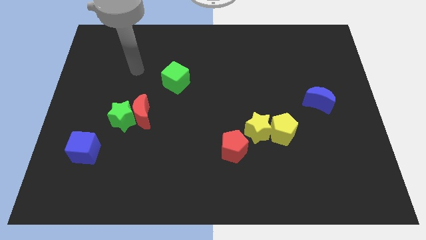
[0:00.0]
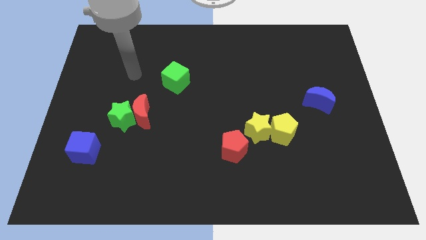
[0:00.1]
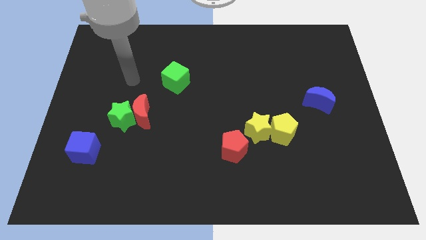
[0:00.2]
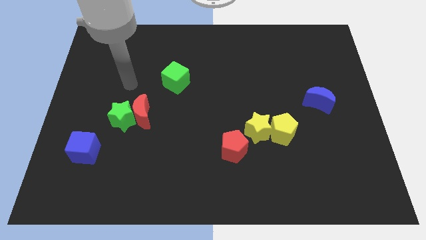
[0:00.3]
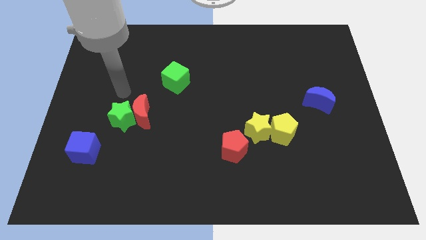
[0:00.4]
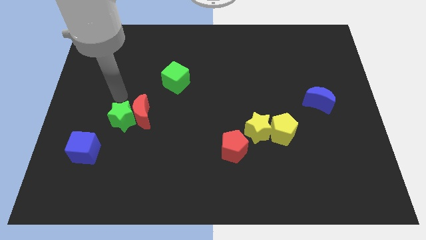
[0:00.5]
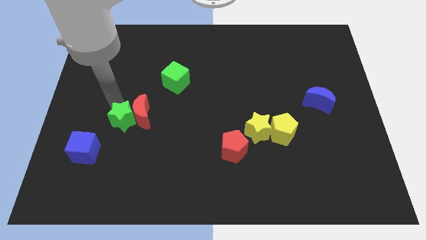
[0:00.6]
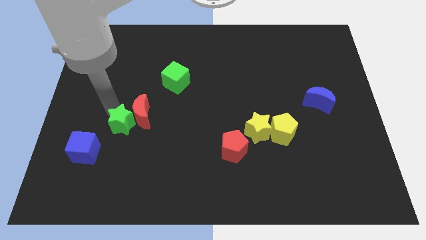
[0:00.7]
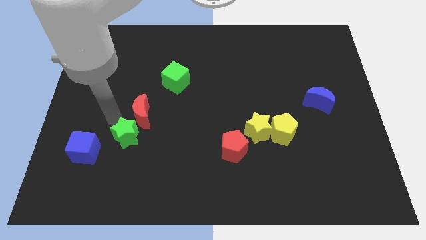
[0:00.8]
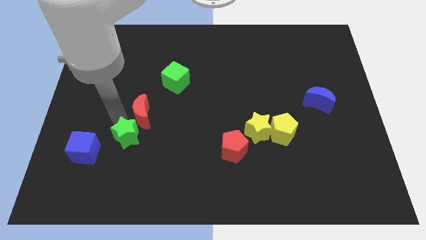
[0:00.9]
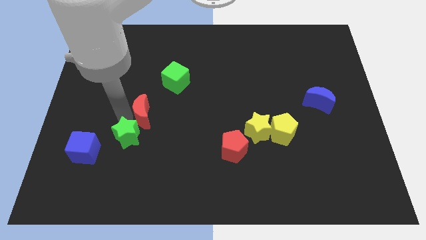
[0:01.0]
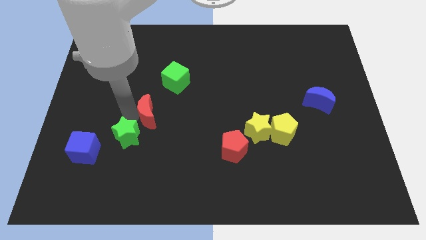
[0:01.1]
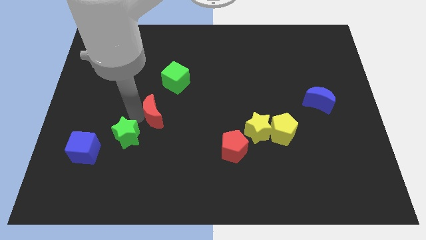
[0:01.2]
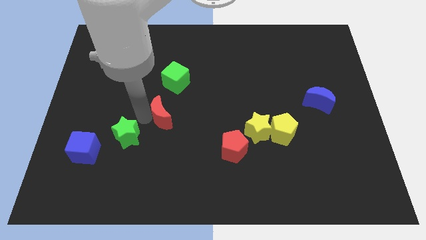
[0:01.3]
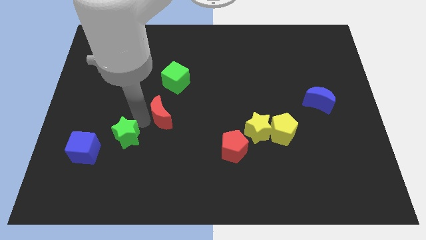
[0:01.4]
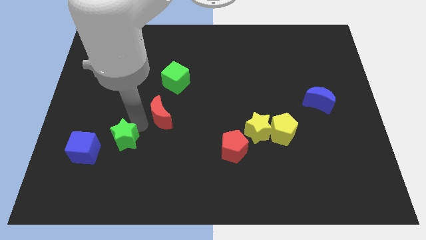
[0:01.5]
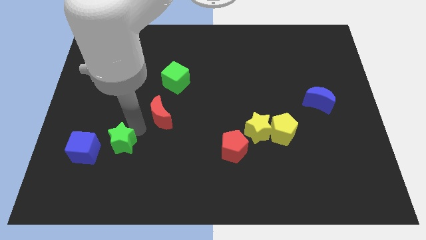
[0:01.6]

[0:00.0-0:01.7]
pull the red moon apart from the green star

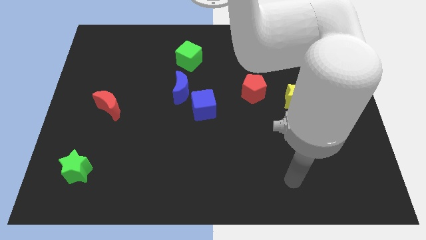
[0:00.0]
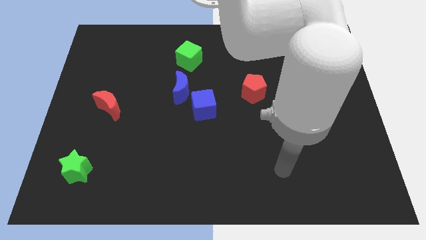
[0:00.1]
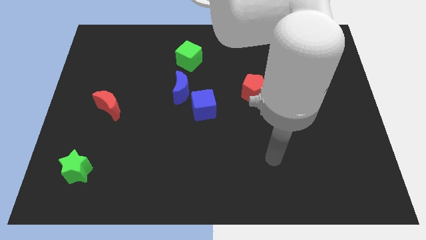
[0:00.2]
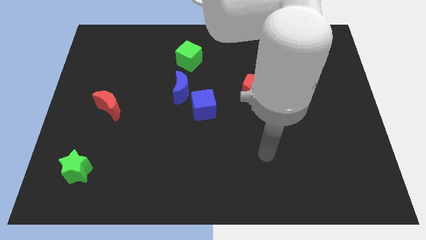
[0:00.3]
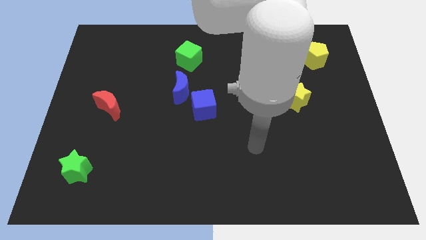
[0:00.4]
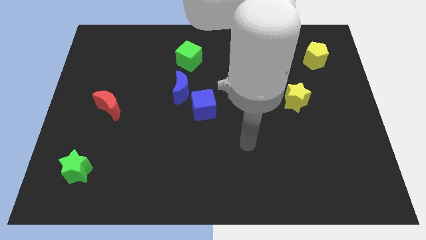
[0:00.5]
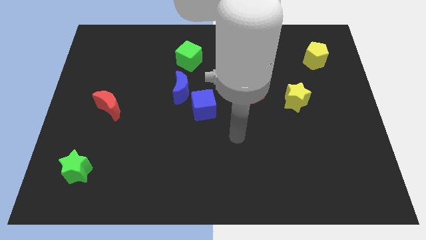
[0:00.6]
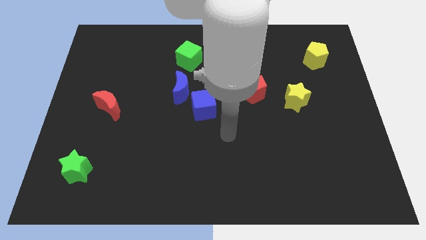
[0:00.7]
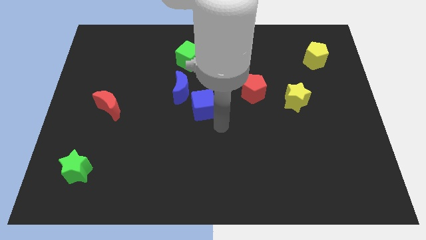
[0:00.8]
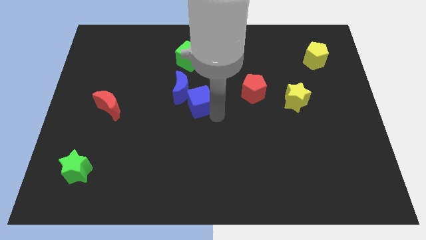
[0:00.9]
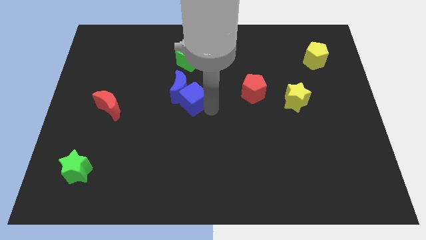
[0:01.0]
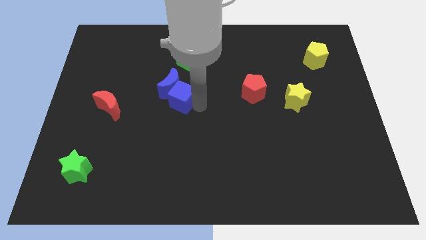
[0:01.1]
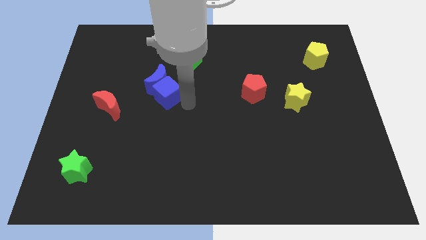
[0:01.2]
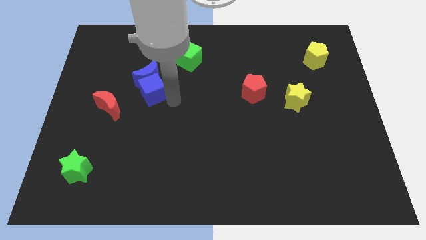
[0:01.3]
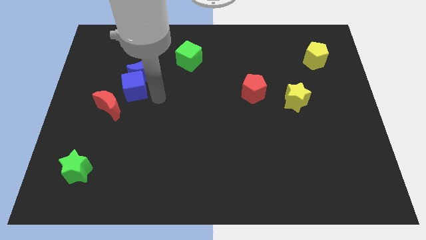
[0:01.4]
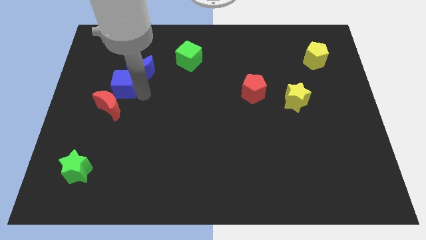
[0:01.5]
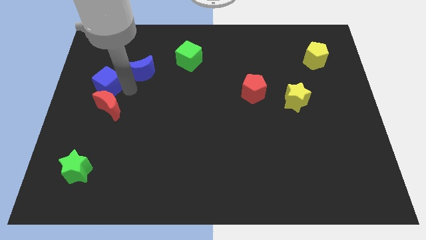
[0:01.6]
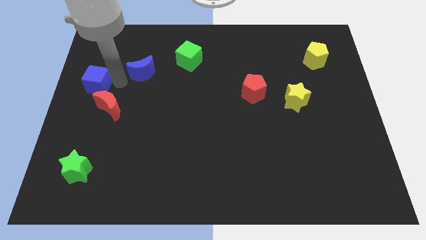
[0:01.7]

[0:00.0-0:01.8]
move the blue moon away from the blue cube

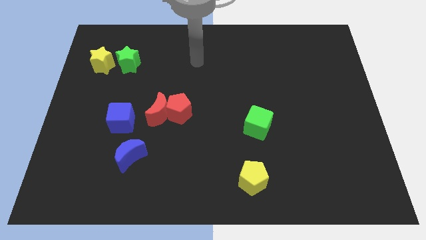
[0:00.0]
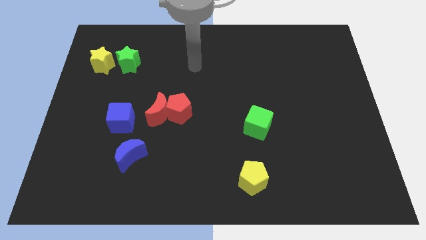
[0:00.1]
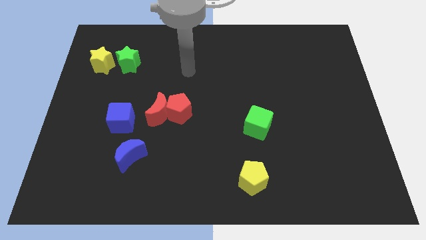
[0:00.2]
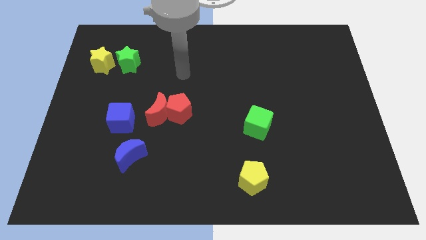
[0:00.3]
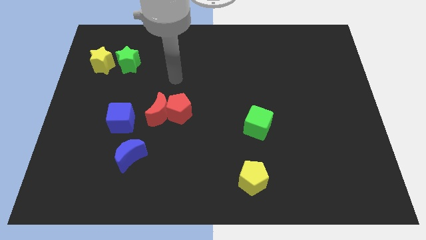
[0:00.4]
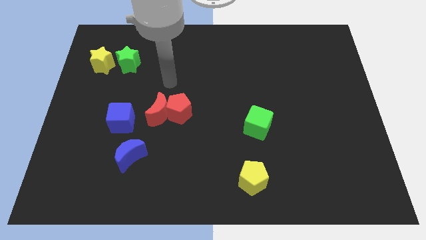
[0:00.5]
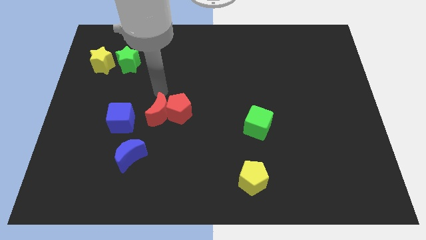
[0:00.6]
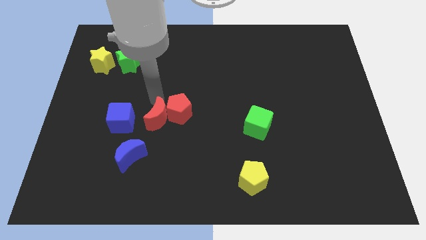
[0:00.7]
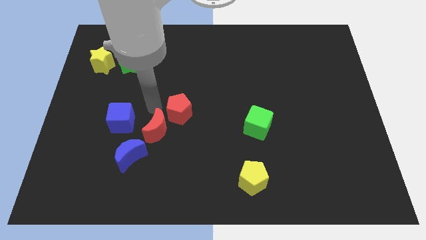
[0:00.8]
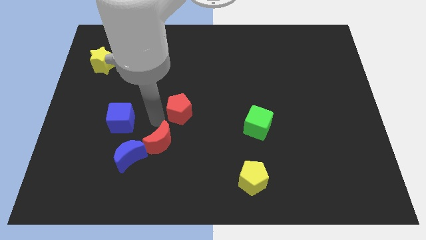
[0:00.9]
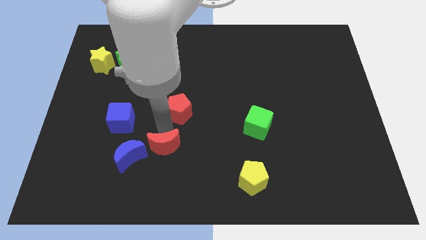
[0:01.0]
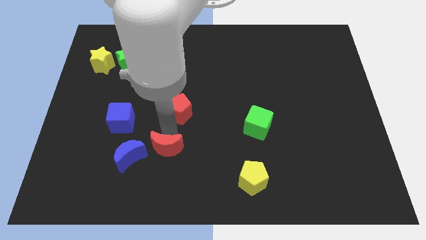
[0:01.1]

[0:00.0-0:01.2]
pull the red pentagon apart from the red moon

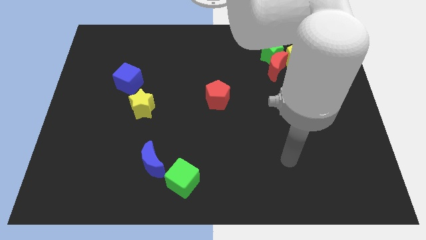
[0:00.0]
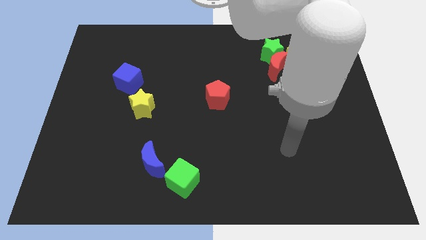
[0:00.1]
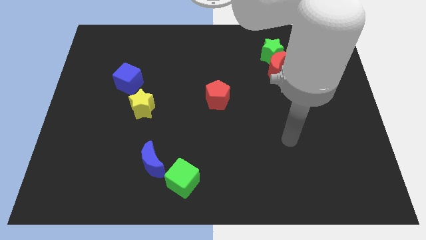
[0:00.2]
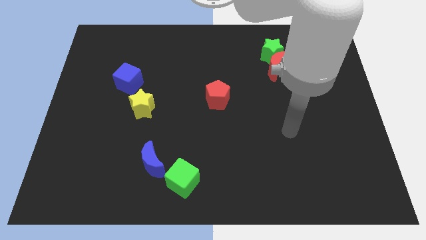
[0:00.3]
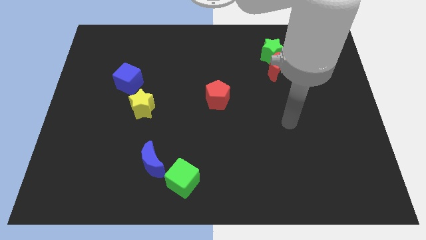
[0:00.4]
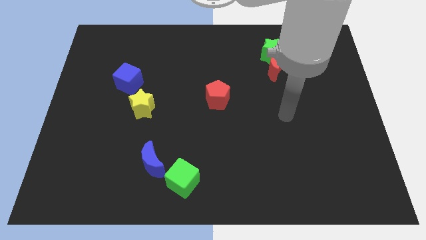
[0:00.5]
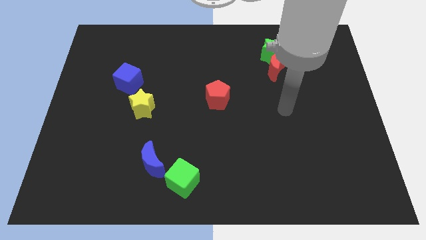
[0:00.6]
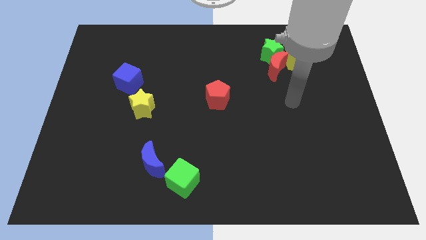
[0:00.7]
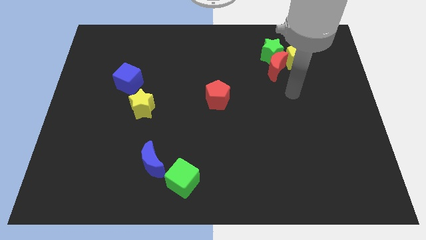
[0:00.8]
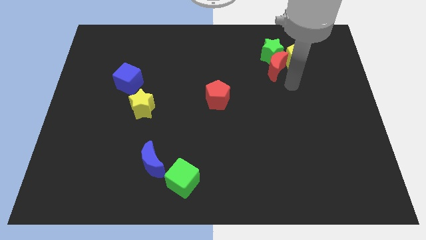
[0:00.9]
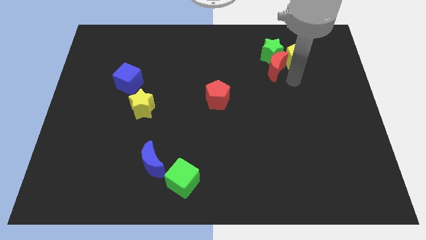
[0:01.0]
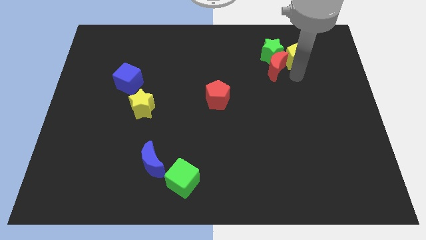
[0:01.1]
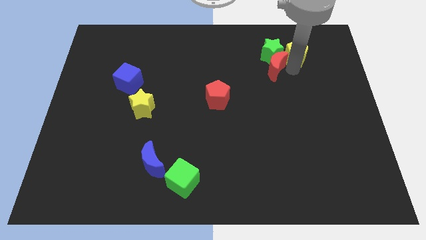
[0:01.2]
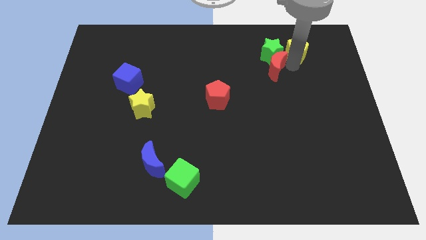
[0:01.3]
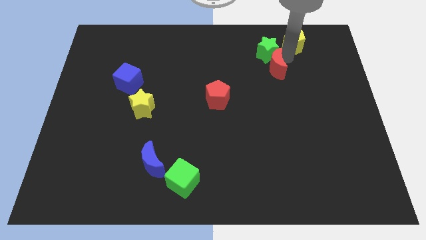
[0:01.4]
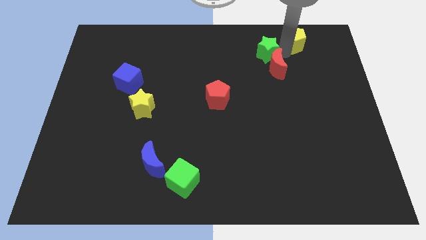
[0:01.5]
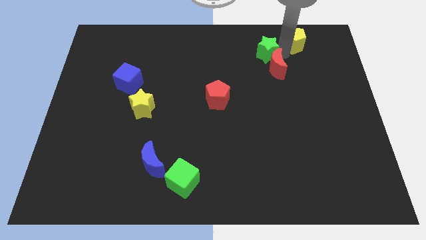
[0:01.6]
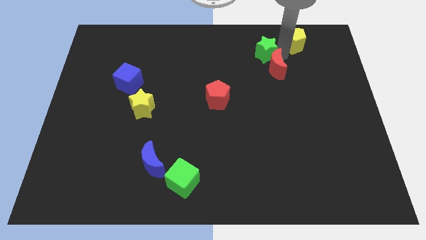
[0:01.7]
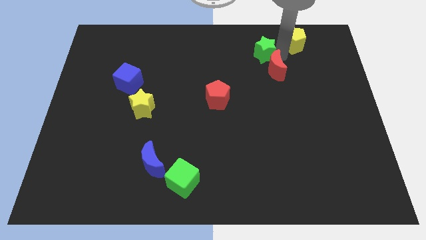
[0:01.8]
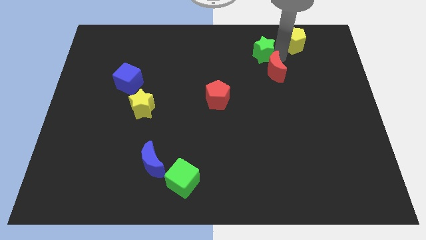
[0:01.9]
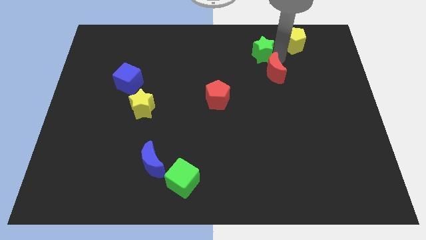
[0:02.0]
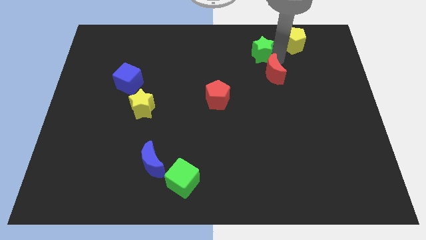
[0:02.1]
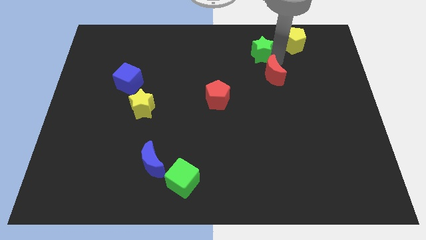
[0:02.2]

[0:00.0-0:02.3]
move the red moon away from the green star and yellow pentagon

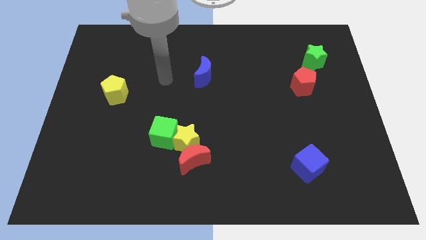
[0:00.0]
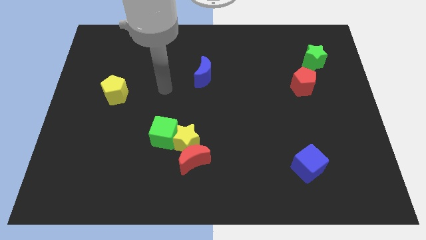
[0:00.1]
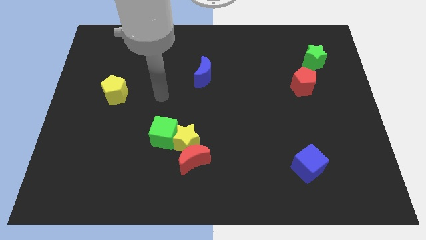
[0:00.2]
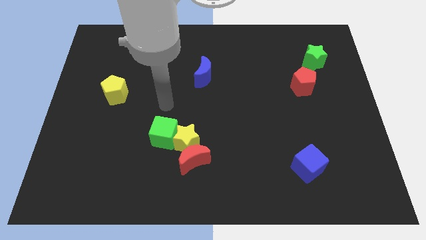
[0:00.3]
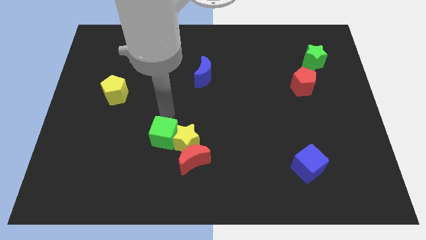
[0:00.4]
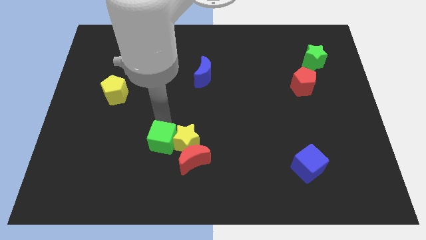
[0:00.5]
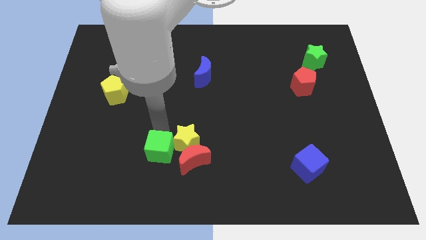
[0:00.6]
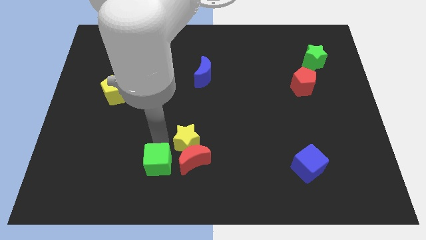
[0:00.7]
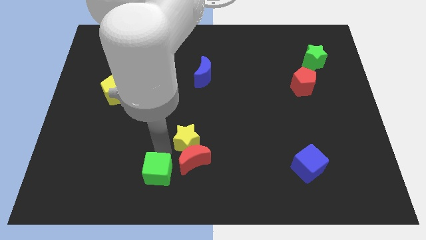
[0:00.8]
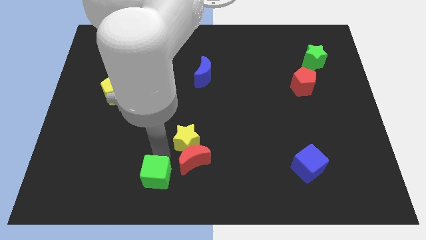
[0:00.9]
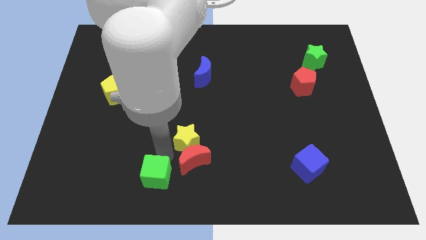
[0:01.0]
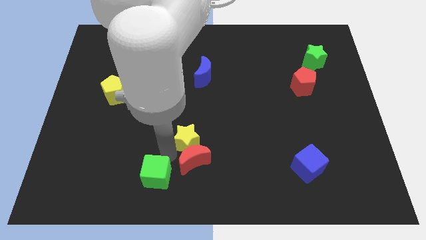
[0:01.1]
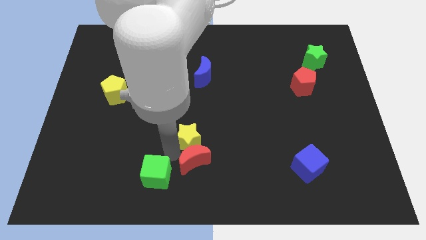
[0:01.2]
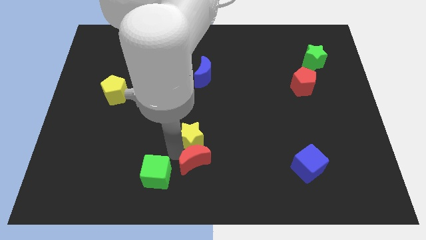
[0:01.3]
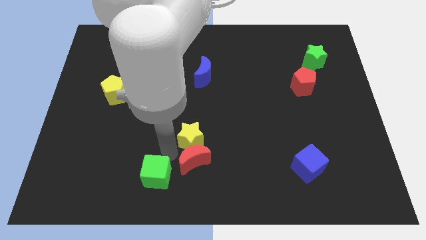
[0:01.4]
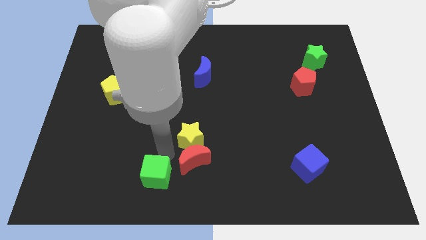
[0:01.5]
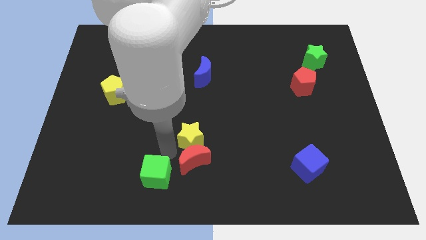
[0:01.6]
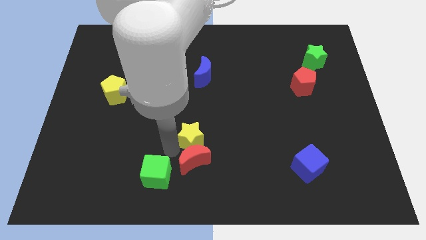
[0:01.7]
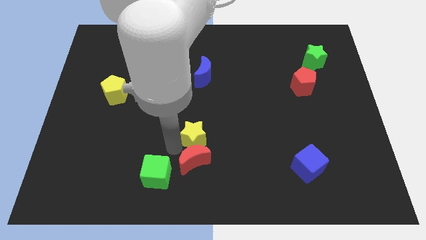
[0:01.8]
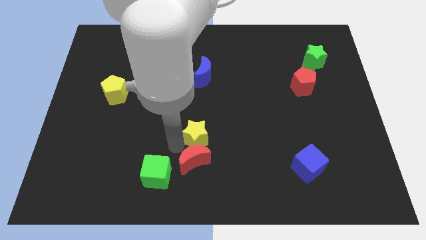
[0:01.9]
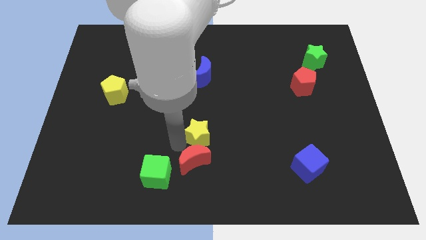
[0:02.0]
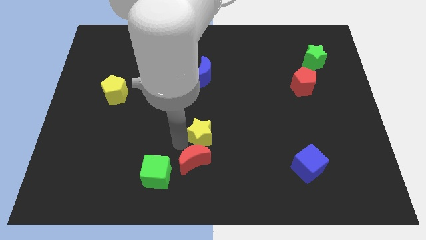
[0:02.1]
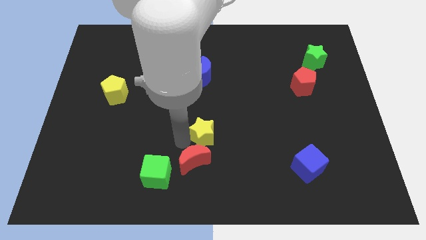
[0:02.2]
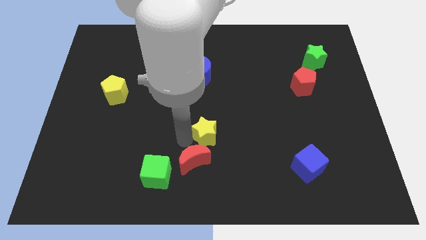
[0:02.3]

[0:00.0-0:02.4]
pull the yellow star apart from the red moon and green cube
